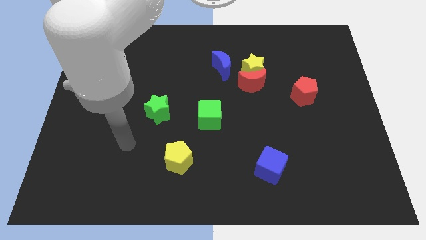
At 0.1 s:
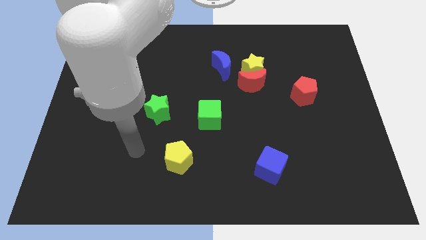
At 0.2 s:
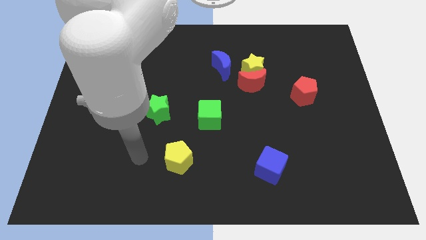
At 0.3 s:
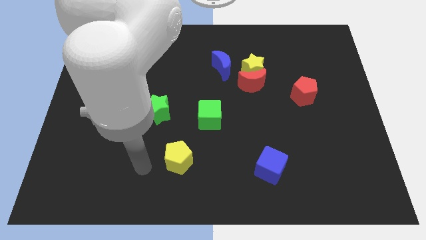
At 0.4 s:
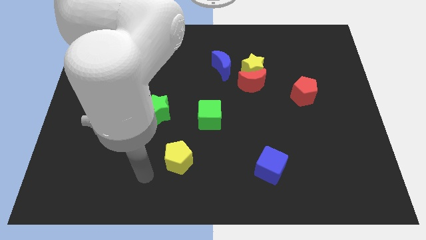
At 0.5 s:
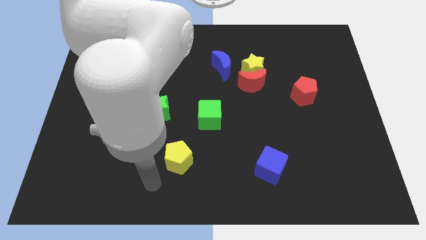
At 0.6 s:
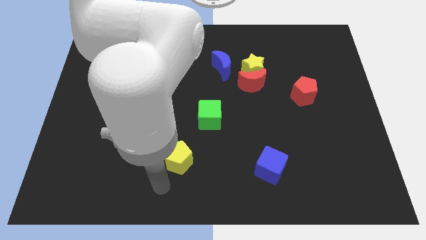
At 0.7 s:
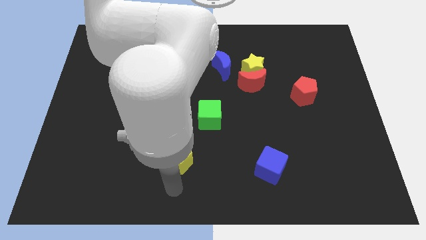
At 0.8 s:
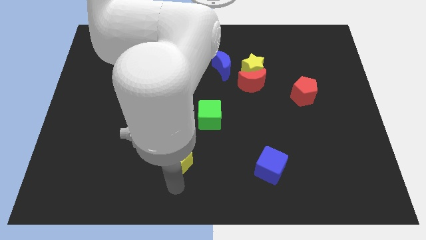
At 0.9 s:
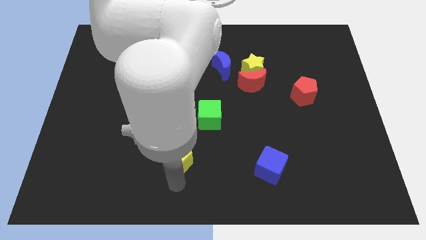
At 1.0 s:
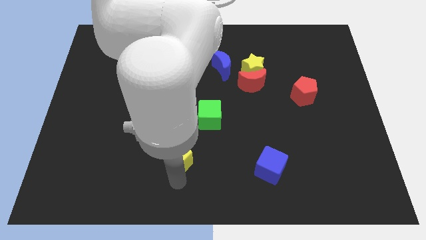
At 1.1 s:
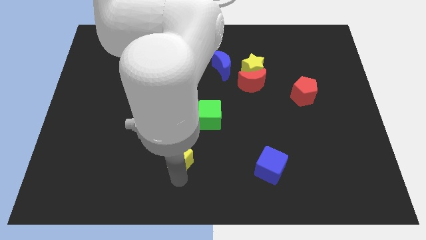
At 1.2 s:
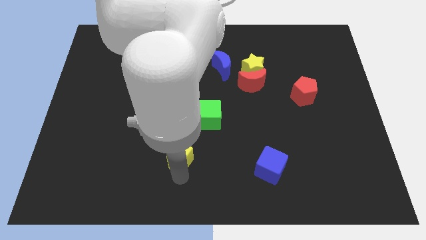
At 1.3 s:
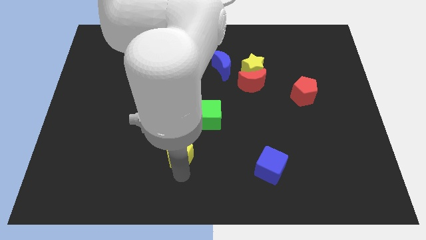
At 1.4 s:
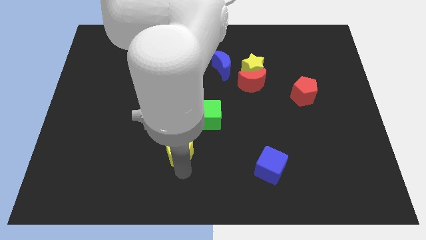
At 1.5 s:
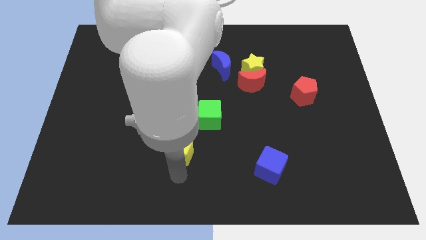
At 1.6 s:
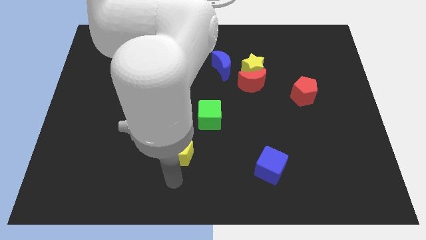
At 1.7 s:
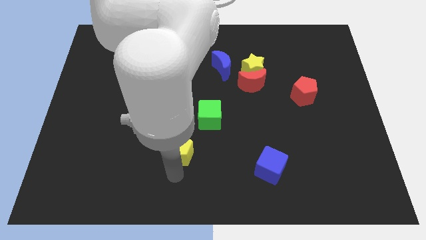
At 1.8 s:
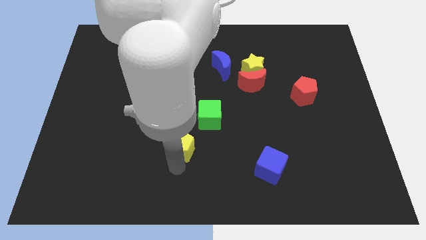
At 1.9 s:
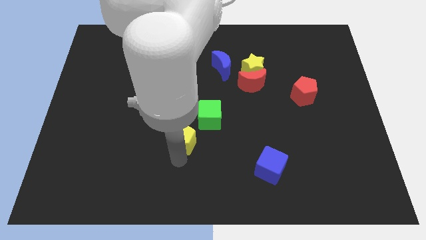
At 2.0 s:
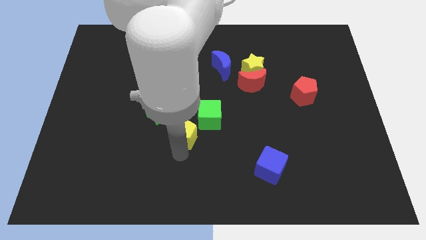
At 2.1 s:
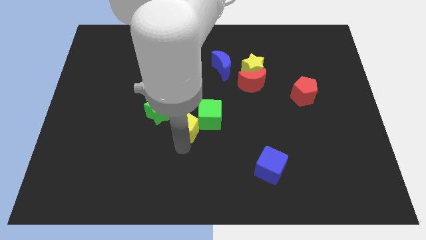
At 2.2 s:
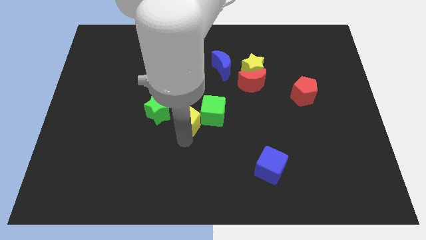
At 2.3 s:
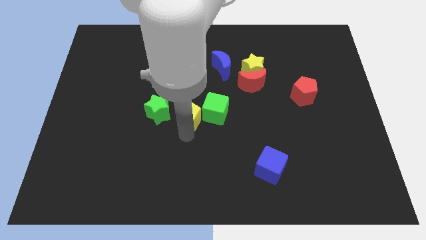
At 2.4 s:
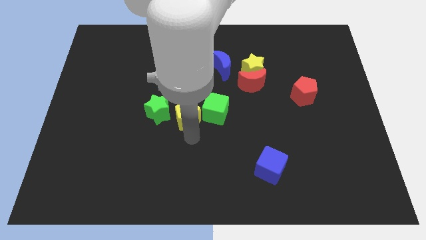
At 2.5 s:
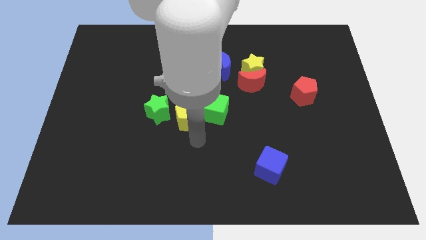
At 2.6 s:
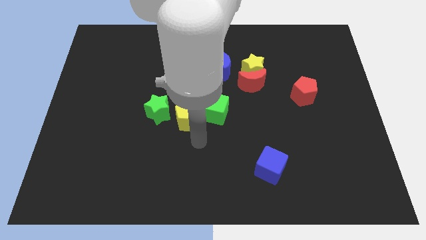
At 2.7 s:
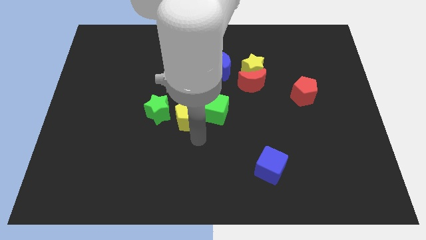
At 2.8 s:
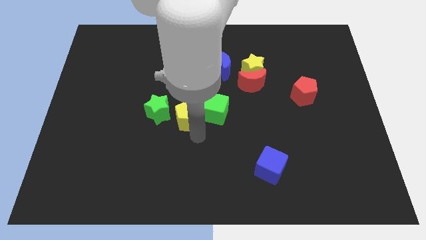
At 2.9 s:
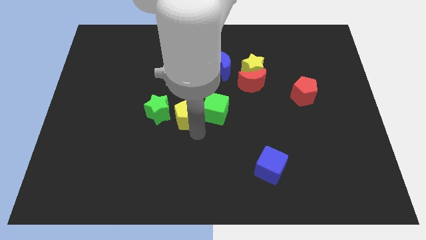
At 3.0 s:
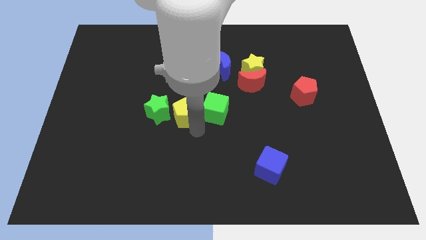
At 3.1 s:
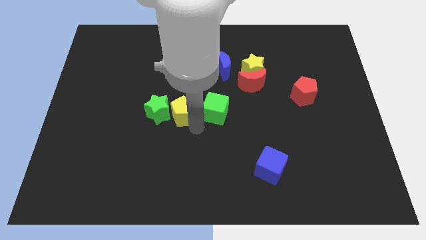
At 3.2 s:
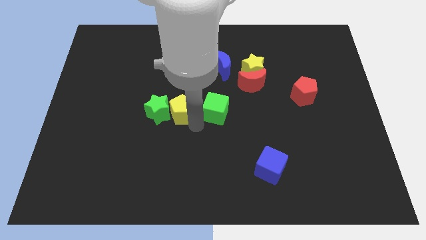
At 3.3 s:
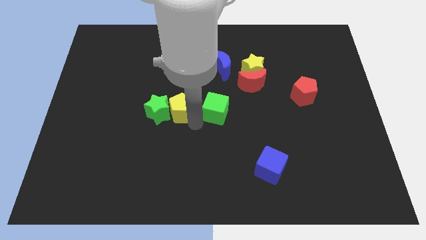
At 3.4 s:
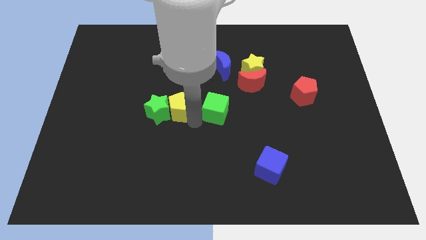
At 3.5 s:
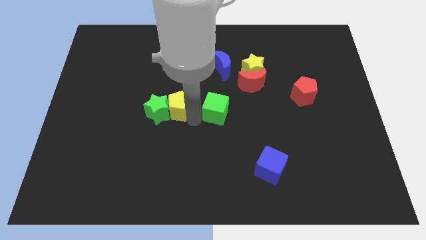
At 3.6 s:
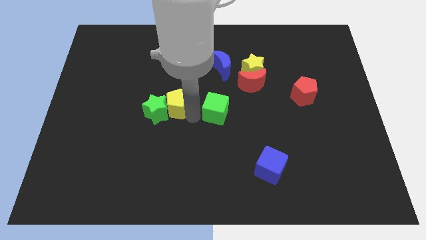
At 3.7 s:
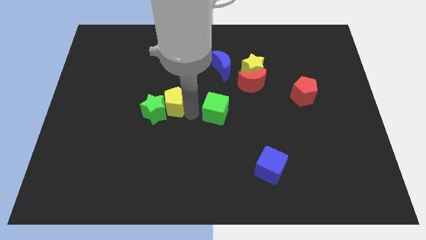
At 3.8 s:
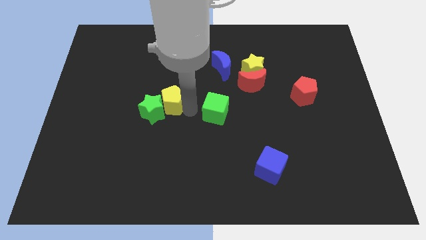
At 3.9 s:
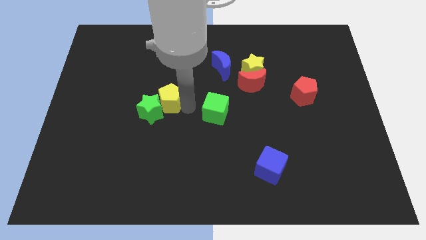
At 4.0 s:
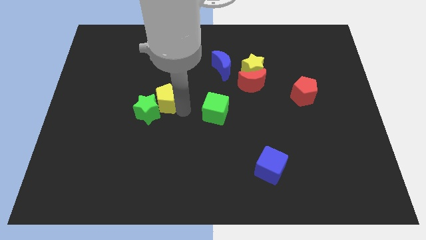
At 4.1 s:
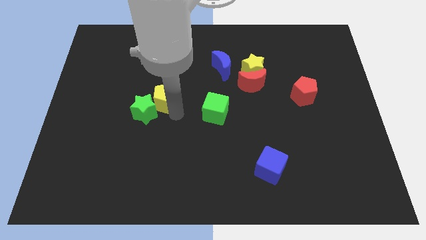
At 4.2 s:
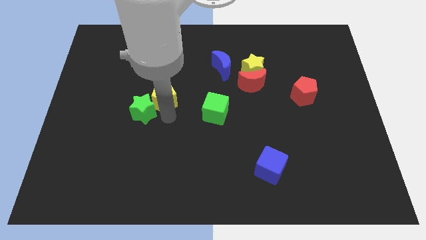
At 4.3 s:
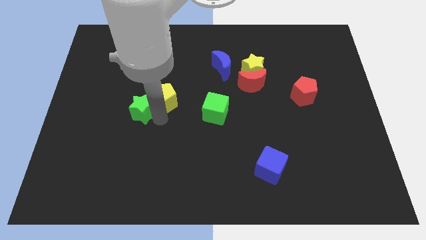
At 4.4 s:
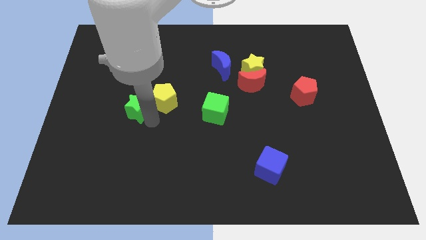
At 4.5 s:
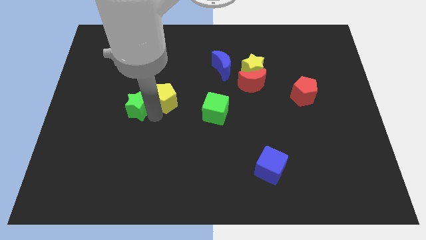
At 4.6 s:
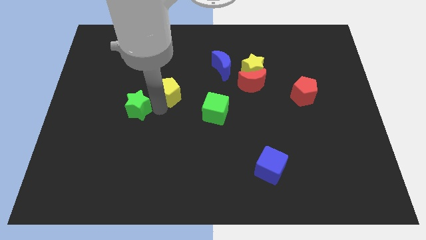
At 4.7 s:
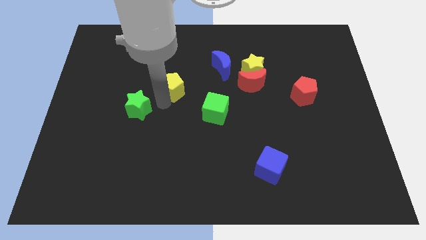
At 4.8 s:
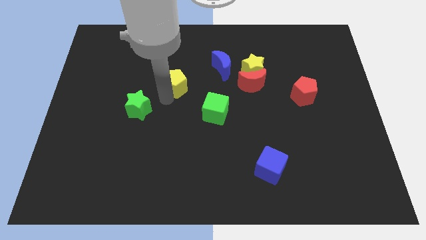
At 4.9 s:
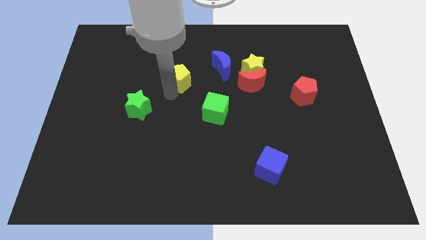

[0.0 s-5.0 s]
put the yellow pentagon just left of the blue moon

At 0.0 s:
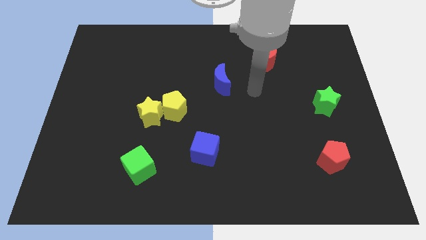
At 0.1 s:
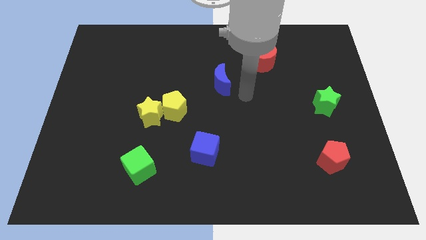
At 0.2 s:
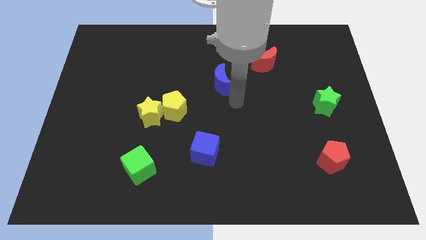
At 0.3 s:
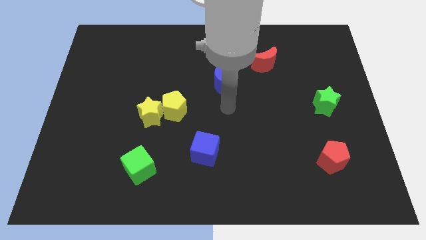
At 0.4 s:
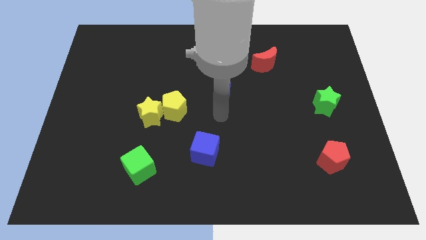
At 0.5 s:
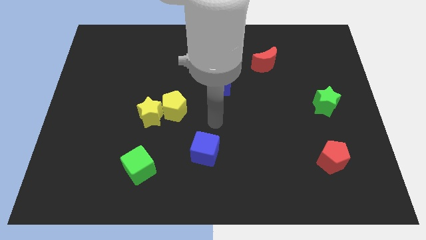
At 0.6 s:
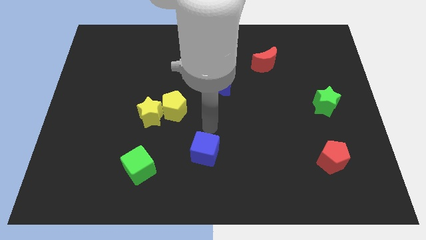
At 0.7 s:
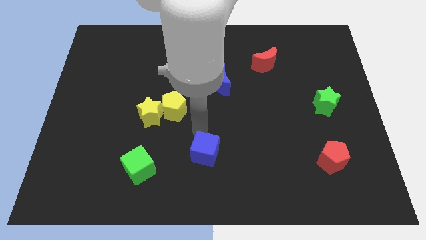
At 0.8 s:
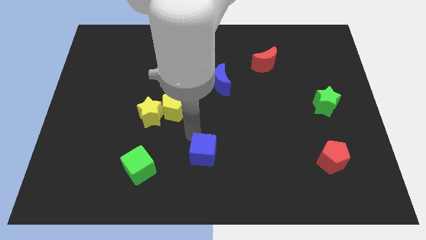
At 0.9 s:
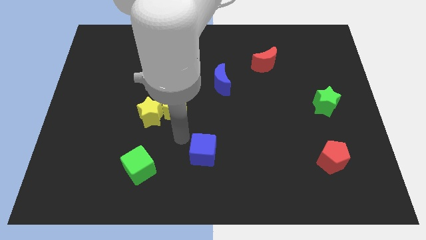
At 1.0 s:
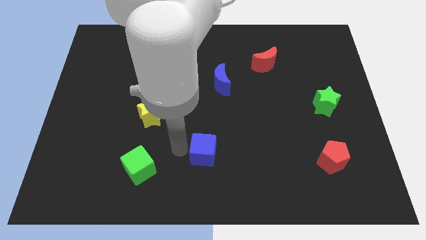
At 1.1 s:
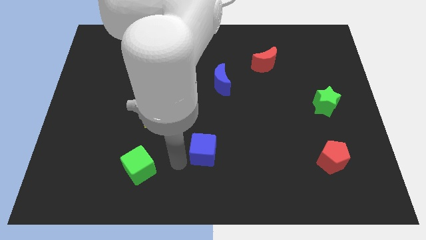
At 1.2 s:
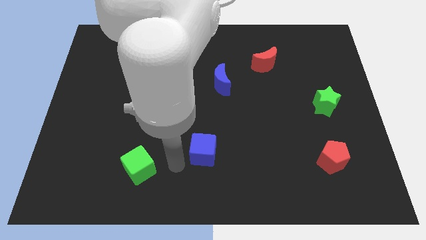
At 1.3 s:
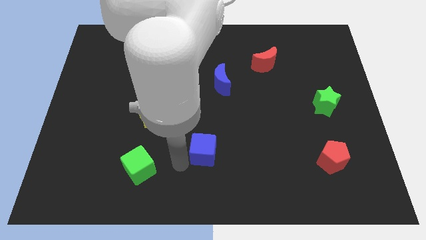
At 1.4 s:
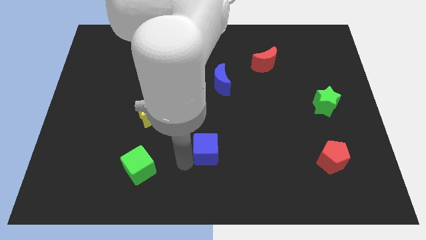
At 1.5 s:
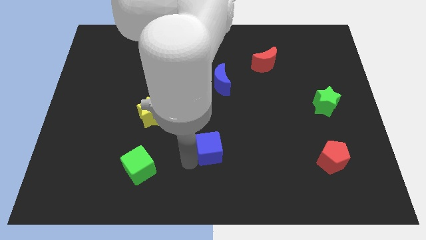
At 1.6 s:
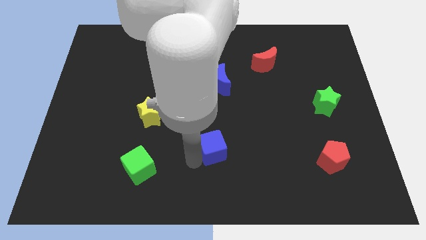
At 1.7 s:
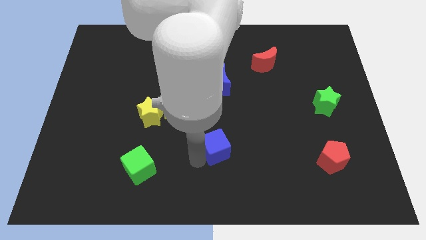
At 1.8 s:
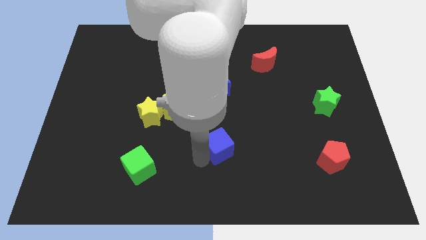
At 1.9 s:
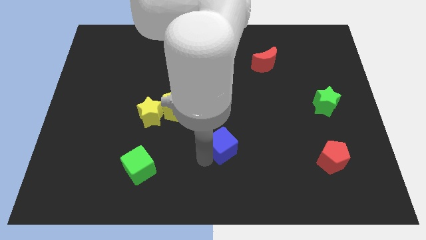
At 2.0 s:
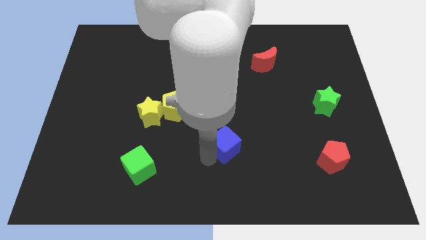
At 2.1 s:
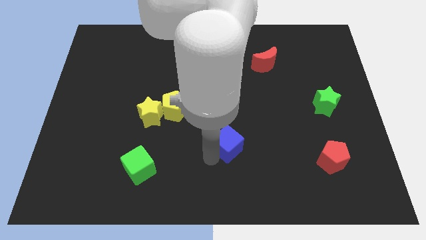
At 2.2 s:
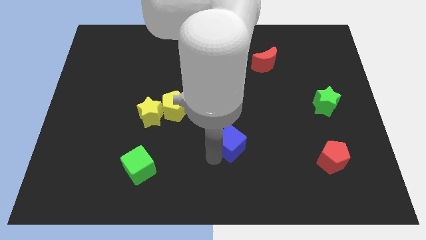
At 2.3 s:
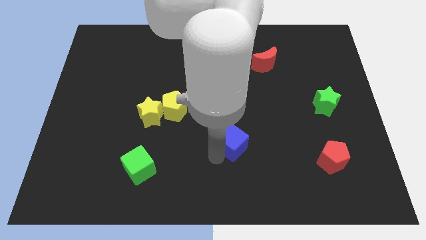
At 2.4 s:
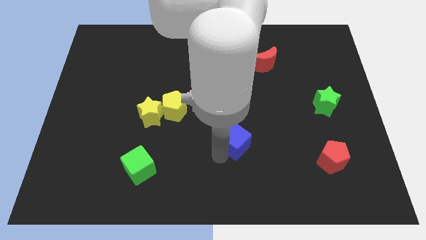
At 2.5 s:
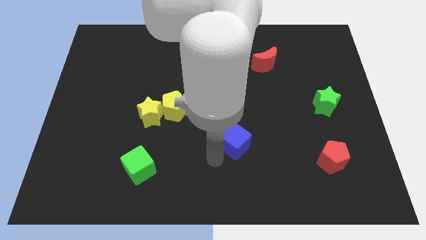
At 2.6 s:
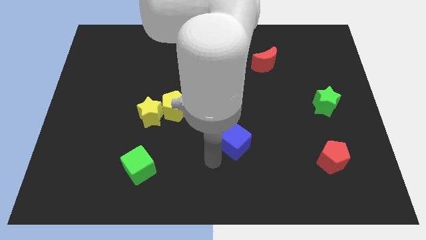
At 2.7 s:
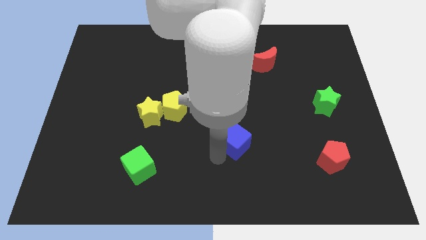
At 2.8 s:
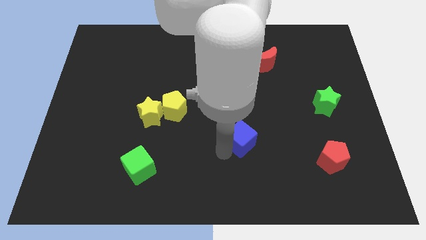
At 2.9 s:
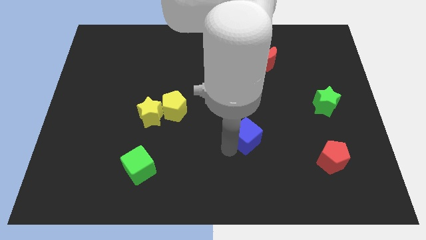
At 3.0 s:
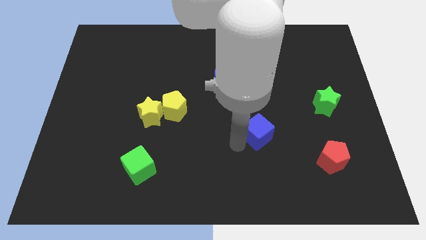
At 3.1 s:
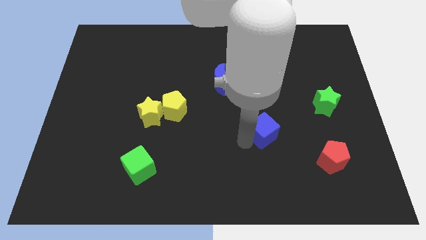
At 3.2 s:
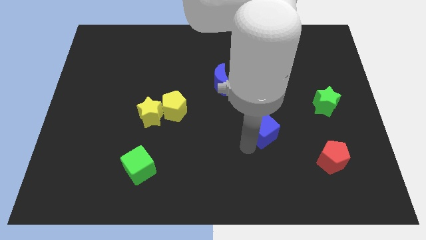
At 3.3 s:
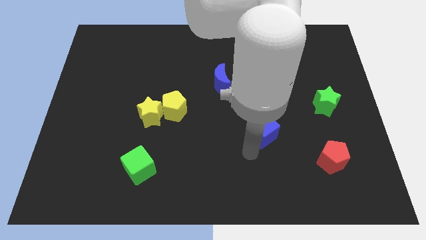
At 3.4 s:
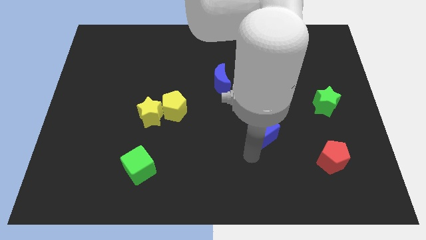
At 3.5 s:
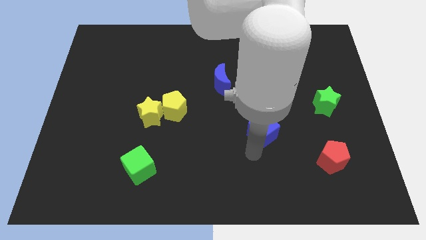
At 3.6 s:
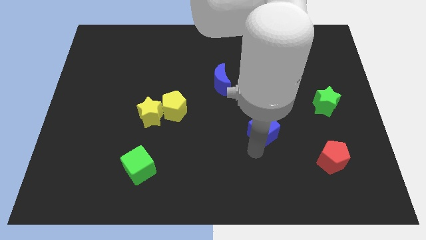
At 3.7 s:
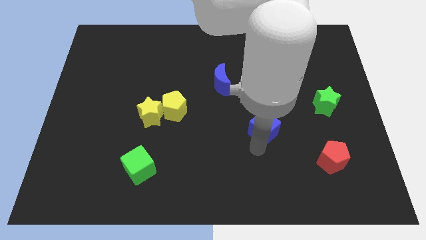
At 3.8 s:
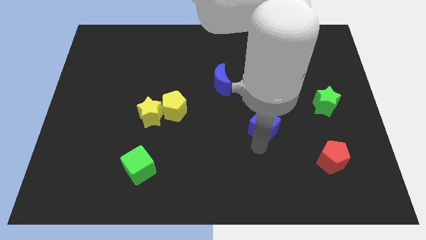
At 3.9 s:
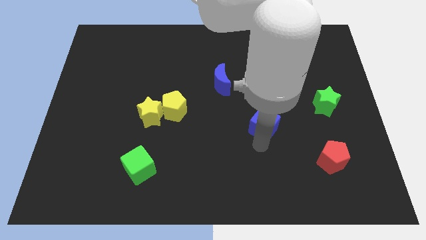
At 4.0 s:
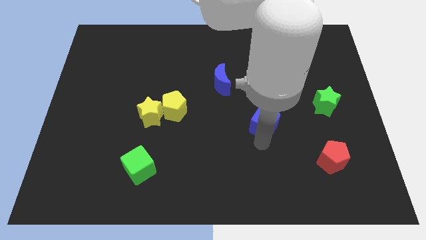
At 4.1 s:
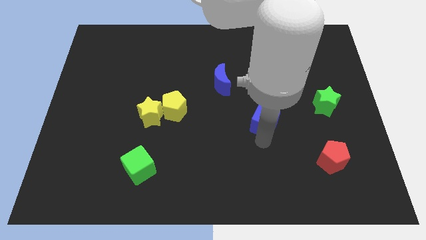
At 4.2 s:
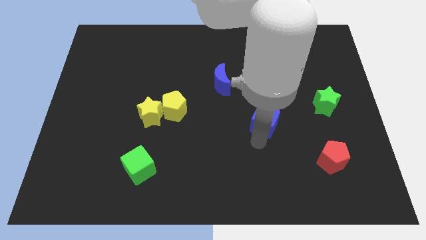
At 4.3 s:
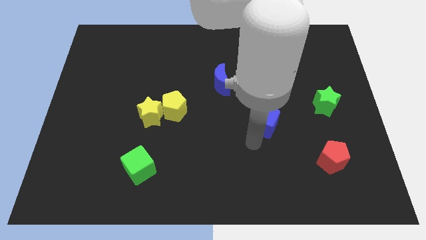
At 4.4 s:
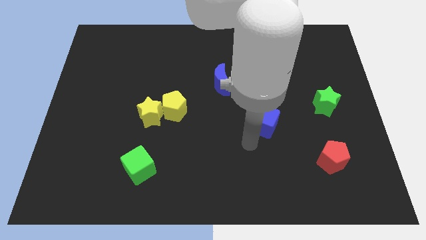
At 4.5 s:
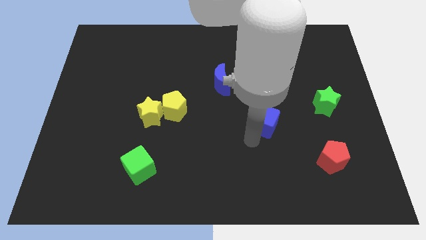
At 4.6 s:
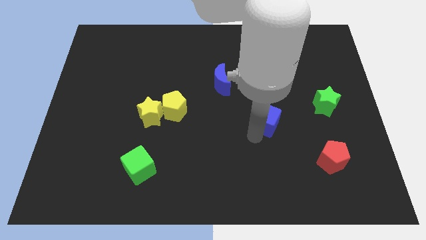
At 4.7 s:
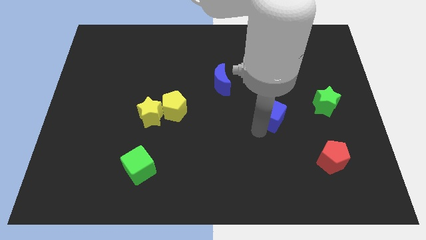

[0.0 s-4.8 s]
put the blue cube just left of the green star
